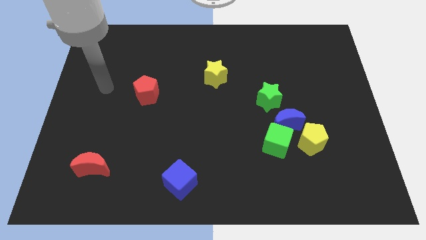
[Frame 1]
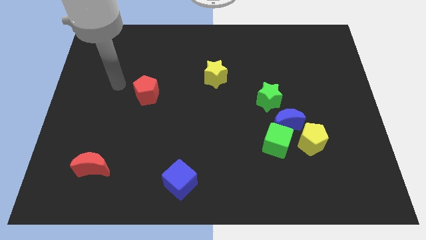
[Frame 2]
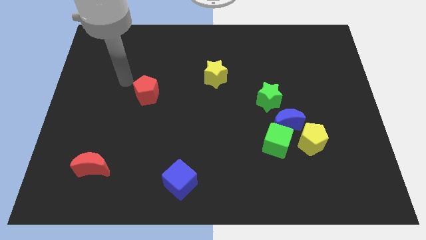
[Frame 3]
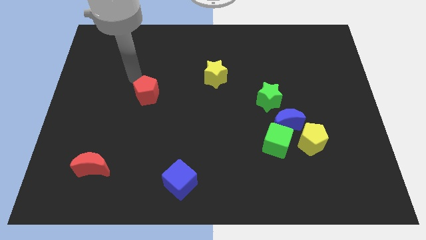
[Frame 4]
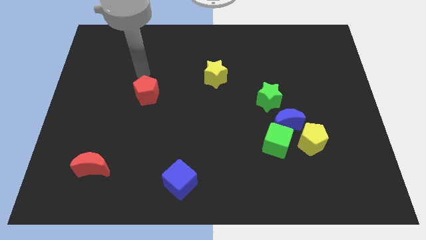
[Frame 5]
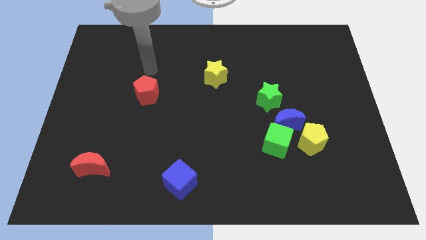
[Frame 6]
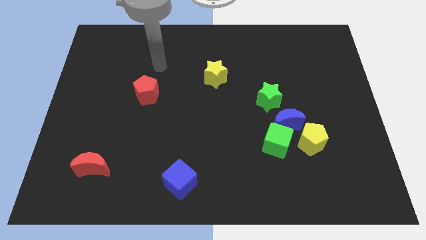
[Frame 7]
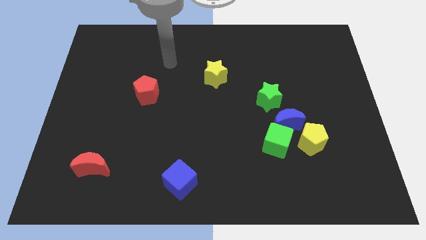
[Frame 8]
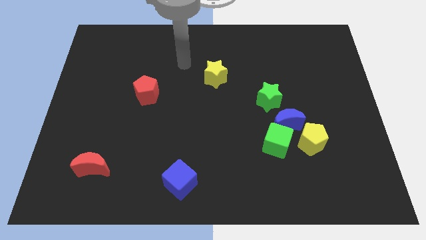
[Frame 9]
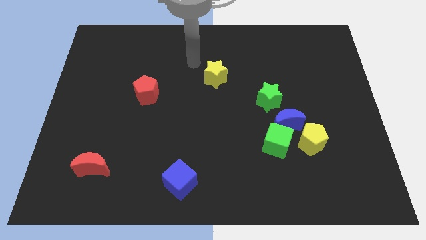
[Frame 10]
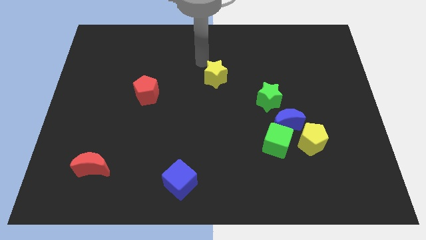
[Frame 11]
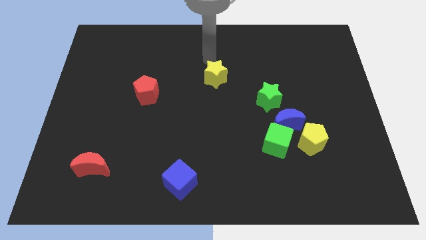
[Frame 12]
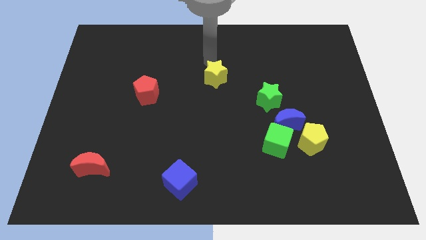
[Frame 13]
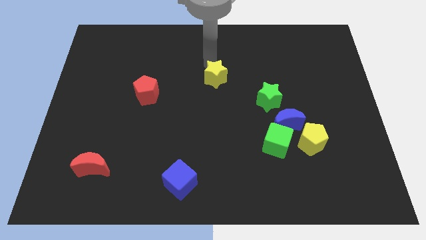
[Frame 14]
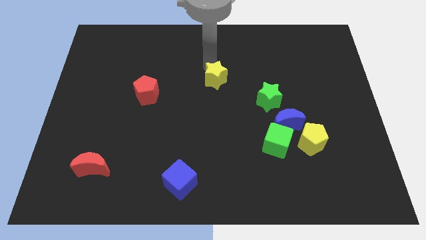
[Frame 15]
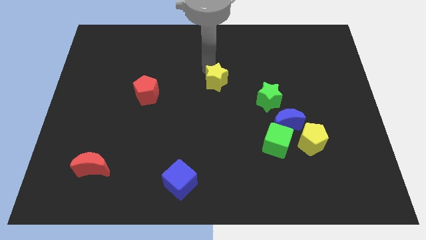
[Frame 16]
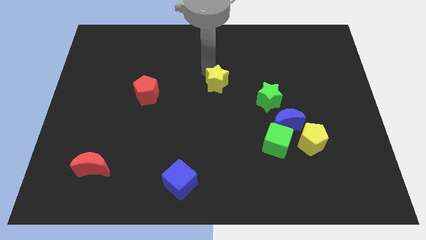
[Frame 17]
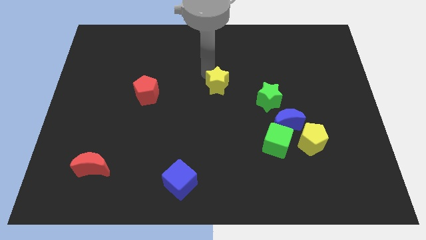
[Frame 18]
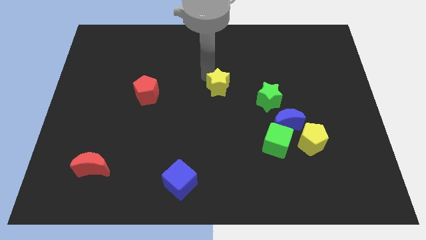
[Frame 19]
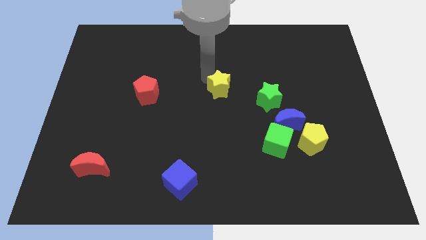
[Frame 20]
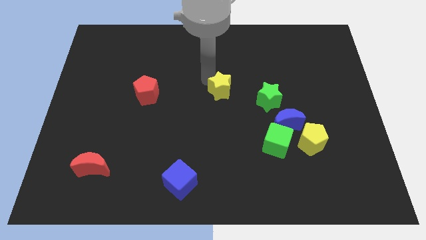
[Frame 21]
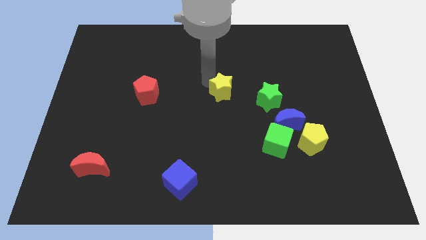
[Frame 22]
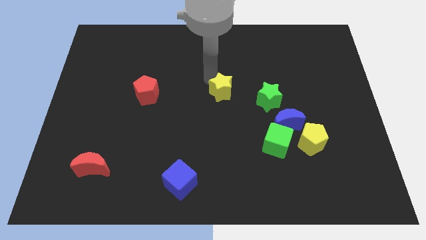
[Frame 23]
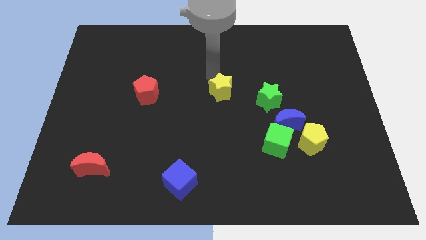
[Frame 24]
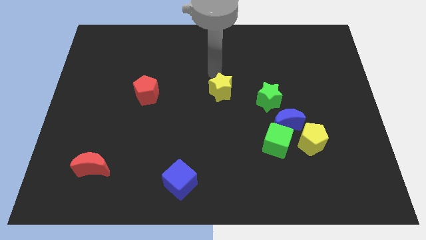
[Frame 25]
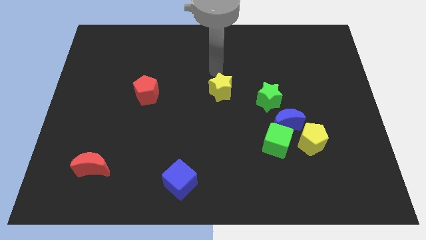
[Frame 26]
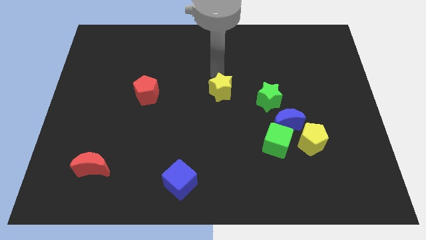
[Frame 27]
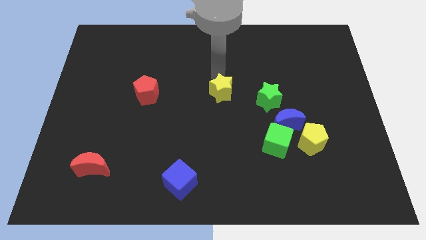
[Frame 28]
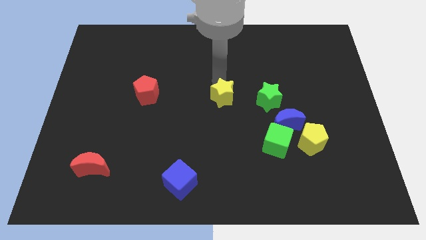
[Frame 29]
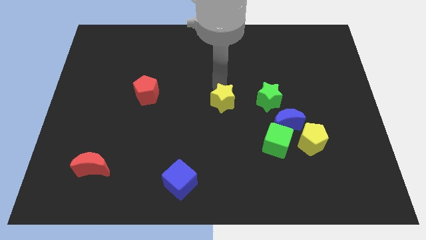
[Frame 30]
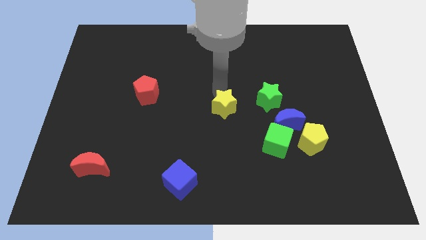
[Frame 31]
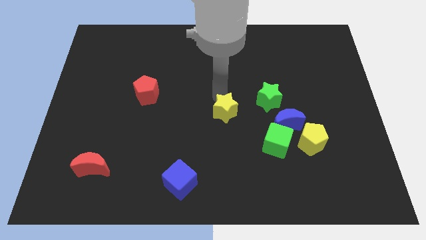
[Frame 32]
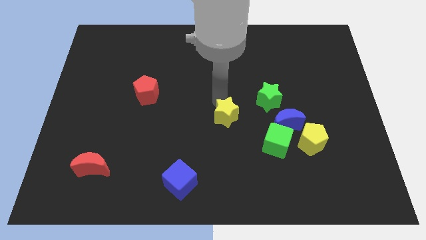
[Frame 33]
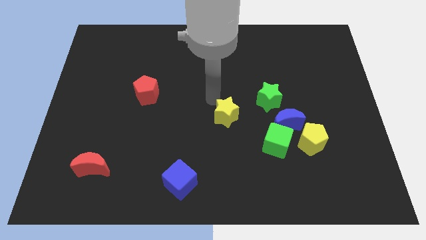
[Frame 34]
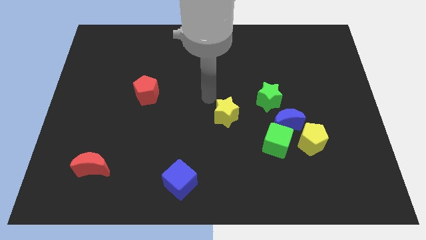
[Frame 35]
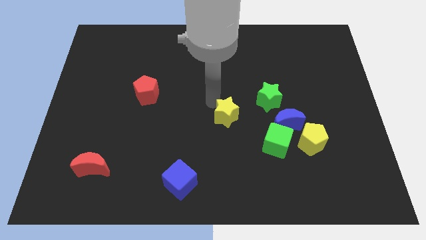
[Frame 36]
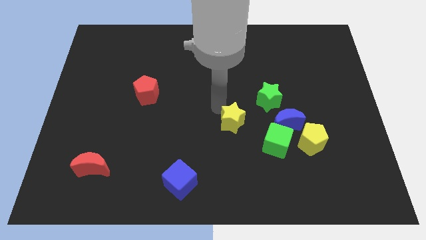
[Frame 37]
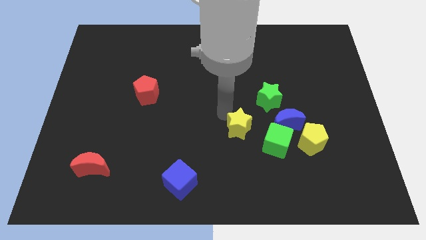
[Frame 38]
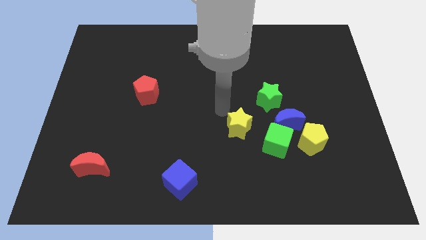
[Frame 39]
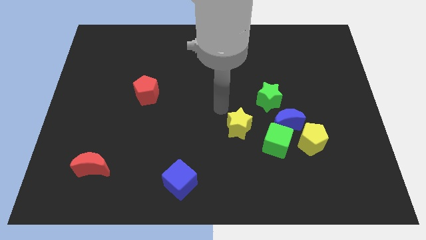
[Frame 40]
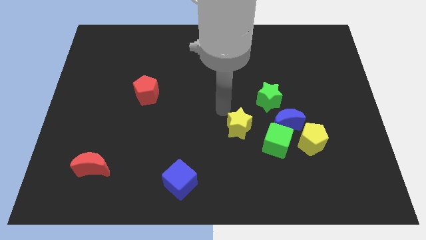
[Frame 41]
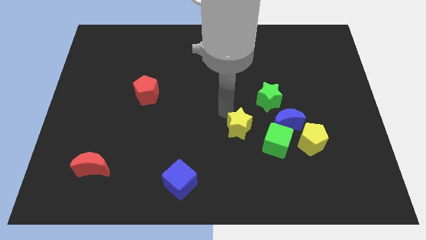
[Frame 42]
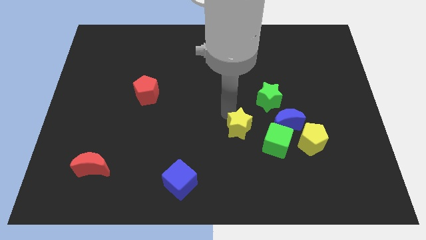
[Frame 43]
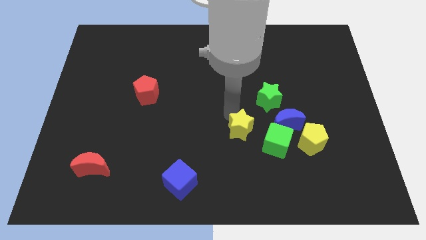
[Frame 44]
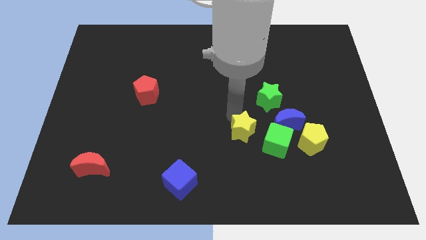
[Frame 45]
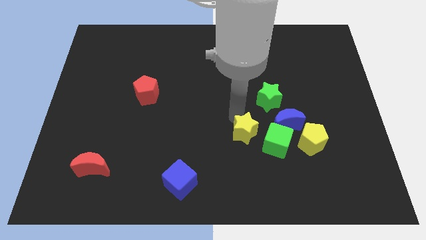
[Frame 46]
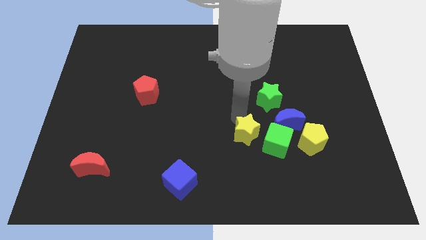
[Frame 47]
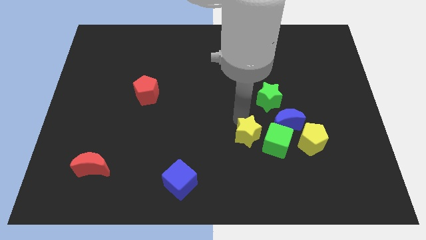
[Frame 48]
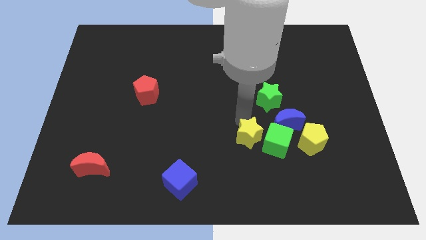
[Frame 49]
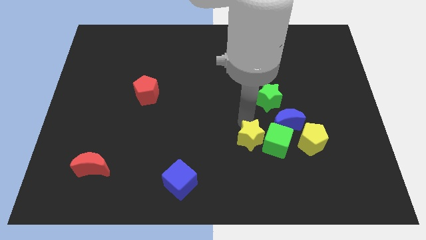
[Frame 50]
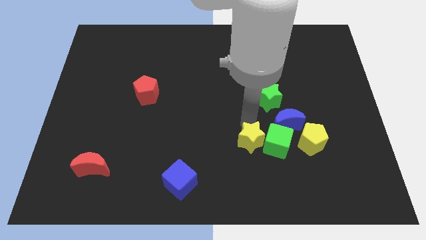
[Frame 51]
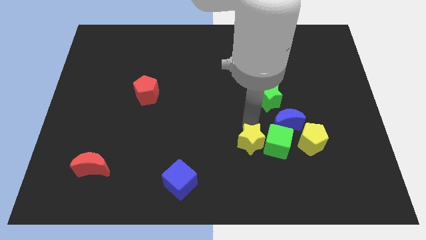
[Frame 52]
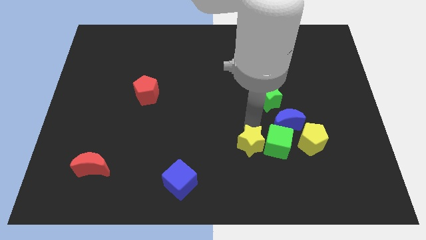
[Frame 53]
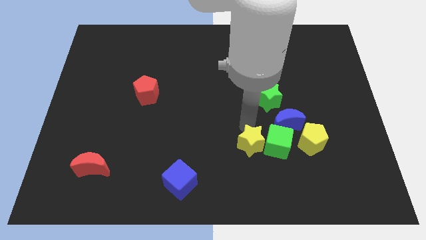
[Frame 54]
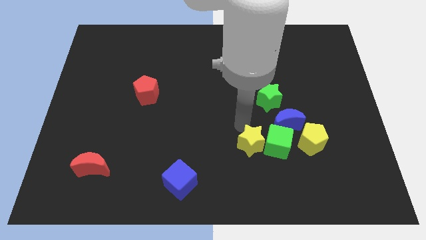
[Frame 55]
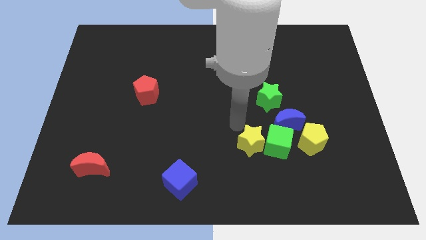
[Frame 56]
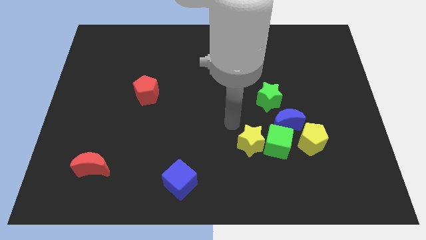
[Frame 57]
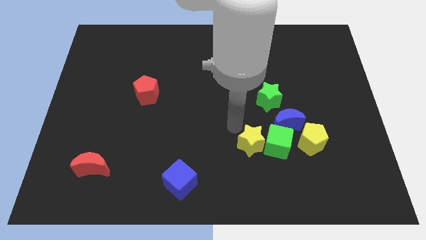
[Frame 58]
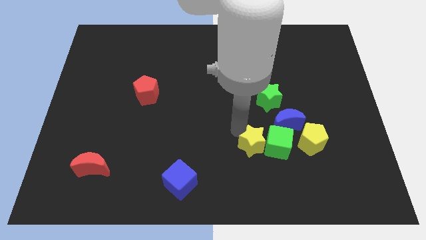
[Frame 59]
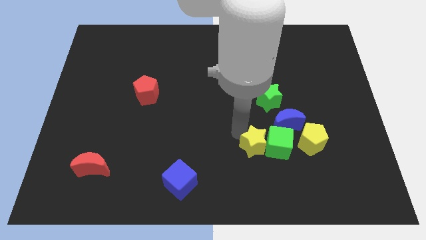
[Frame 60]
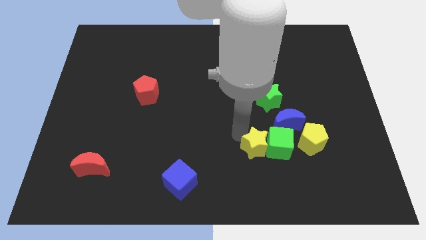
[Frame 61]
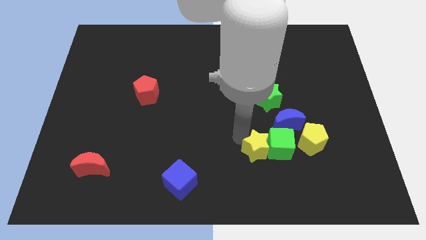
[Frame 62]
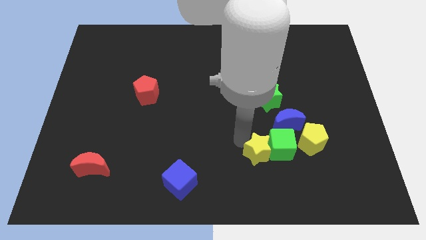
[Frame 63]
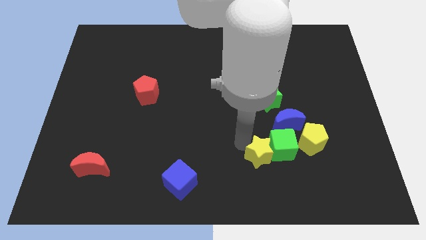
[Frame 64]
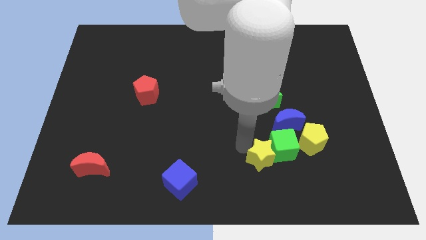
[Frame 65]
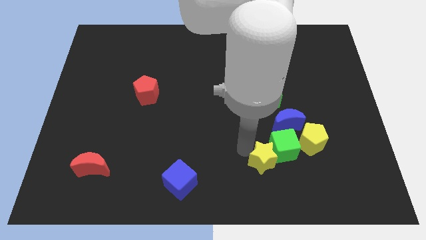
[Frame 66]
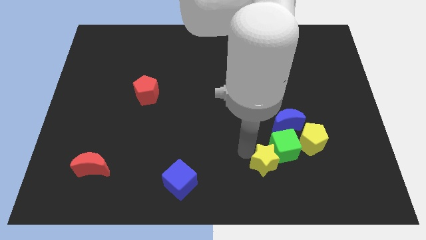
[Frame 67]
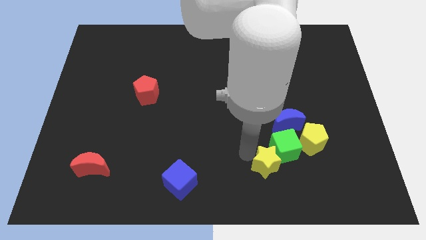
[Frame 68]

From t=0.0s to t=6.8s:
push the yellow star downwards and right diagonally

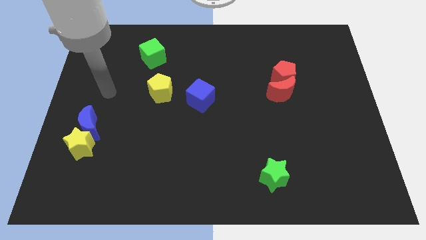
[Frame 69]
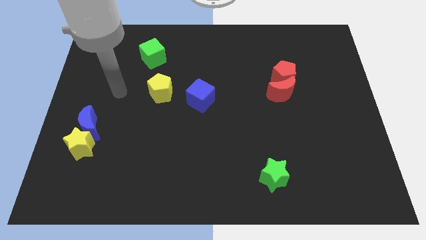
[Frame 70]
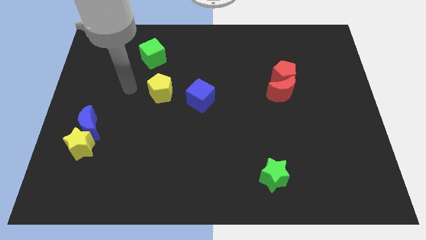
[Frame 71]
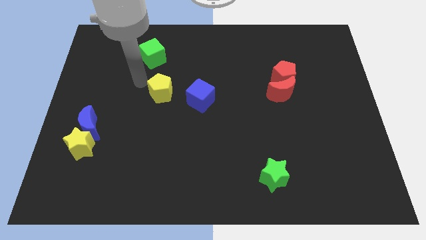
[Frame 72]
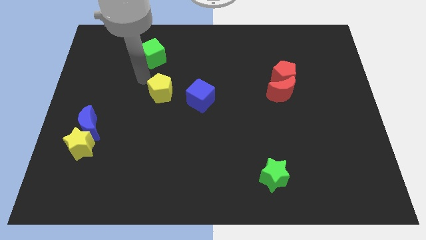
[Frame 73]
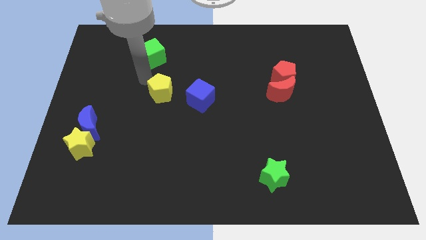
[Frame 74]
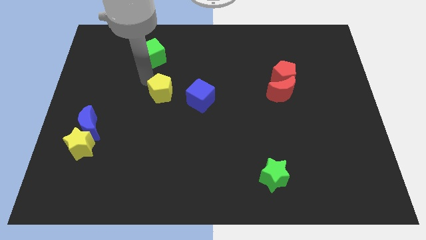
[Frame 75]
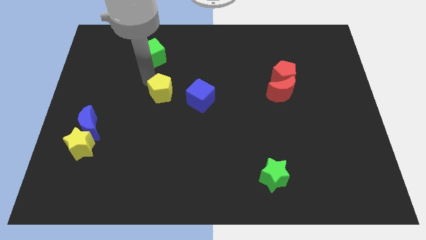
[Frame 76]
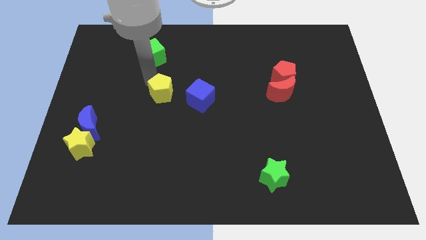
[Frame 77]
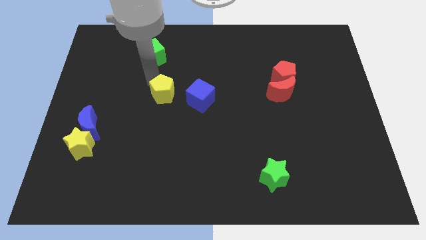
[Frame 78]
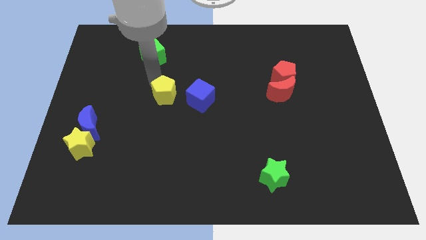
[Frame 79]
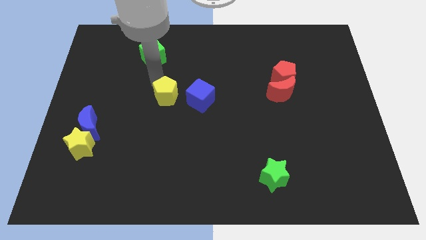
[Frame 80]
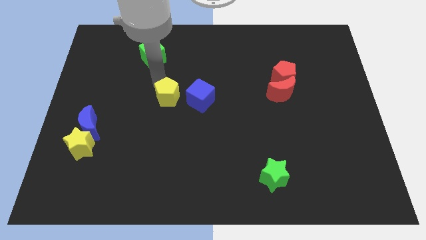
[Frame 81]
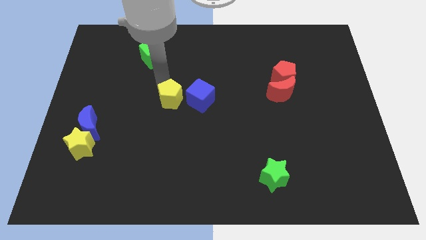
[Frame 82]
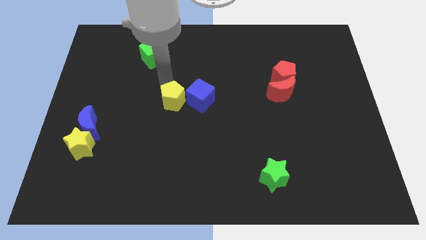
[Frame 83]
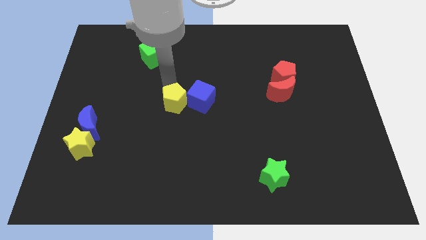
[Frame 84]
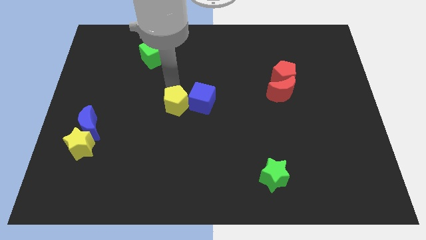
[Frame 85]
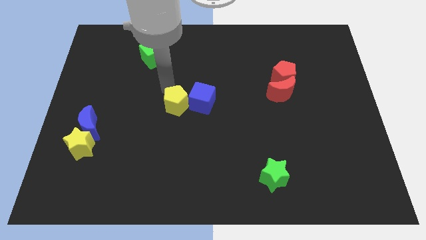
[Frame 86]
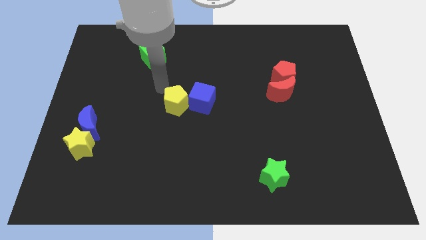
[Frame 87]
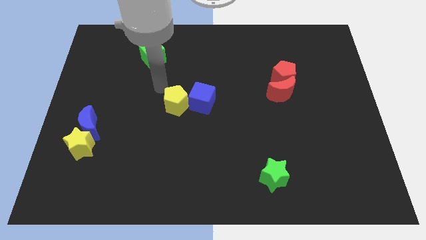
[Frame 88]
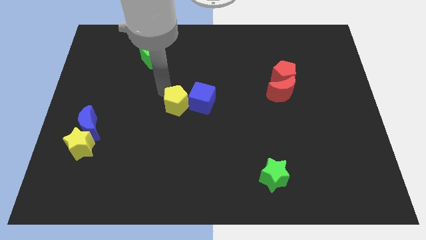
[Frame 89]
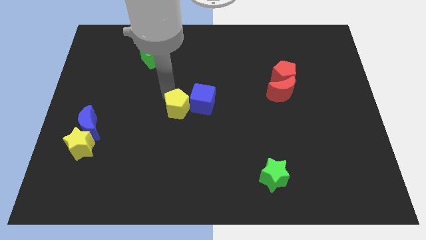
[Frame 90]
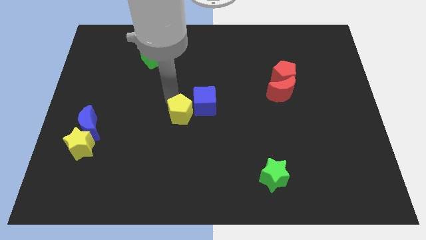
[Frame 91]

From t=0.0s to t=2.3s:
push the yellow pentagon slightly downwards and right diagonally
